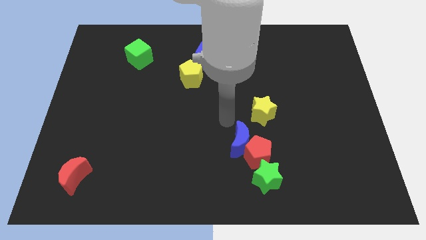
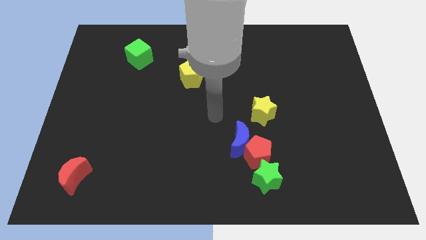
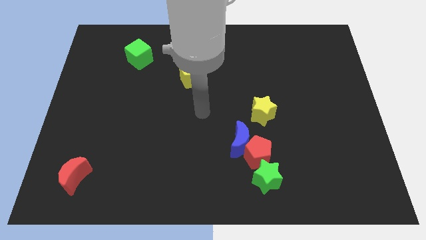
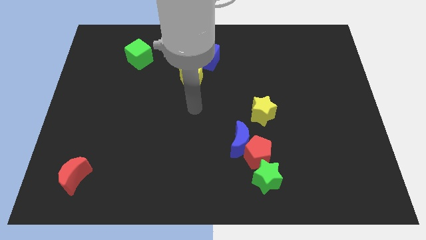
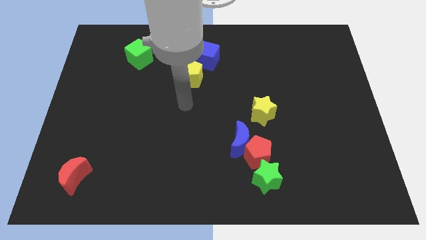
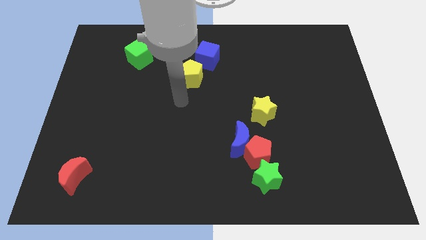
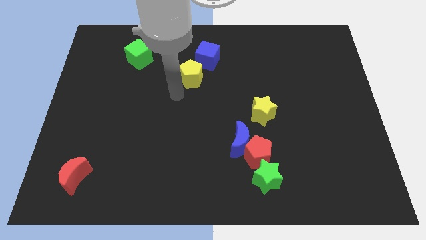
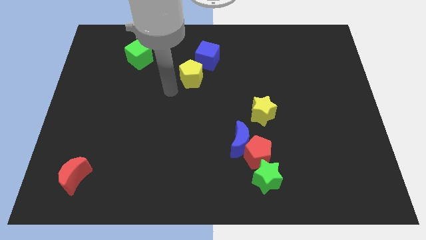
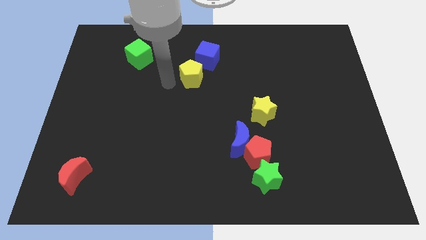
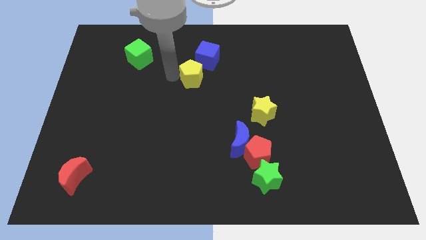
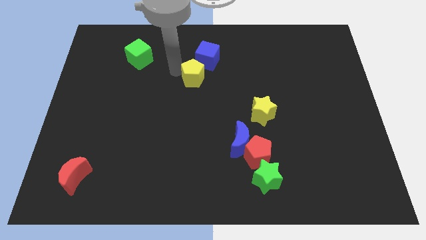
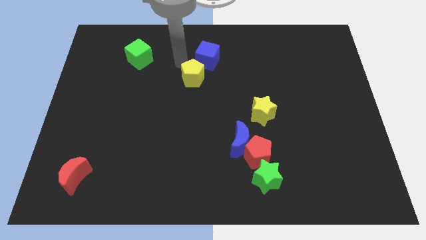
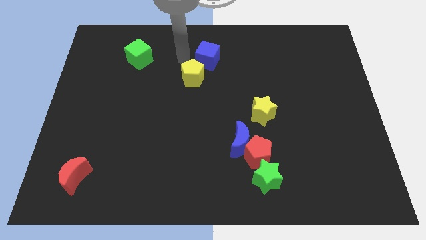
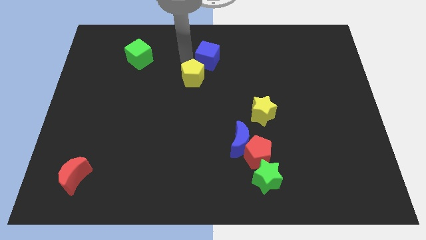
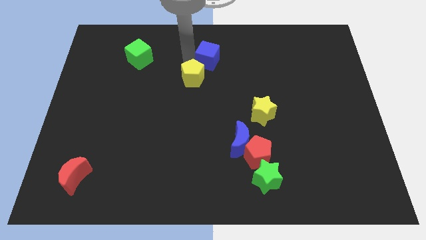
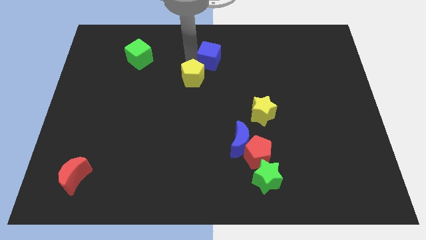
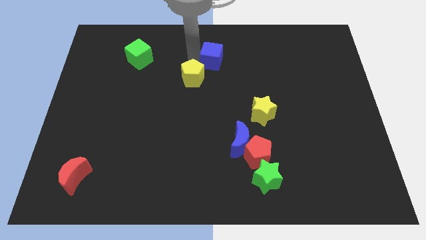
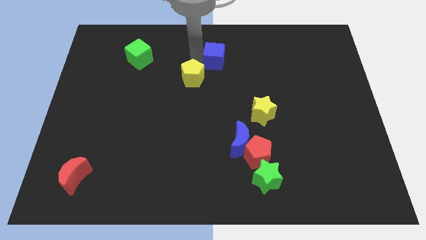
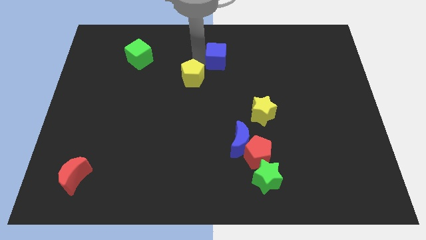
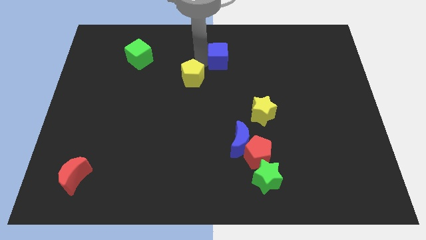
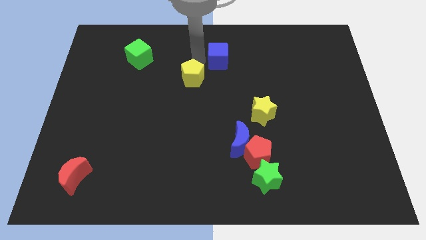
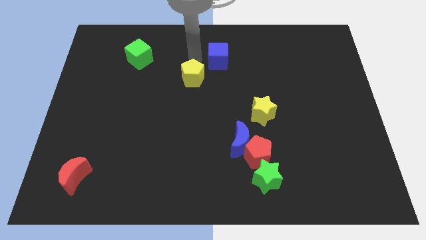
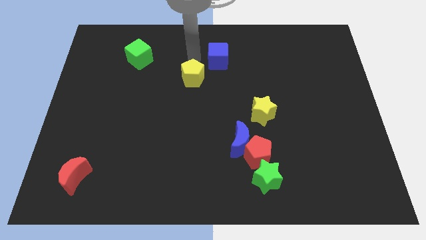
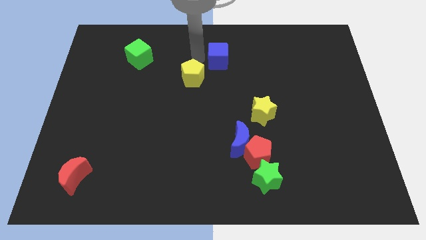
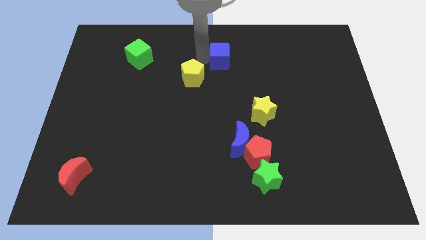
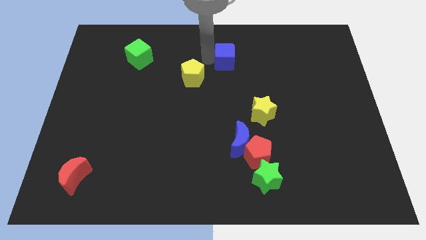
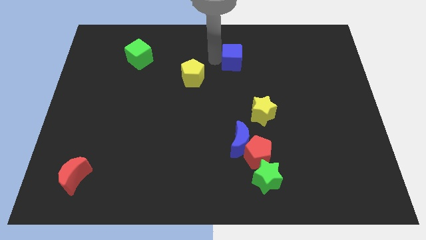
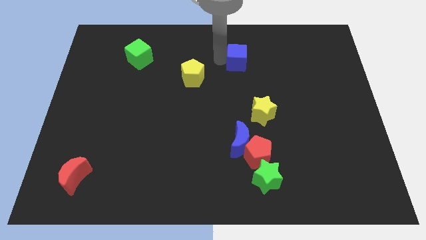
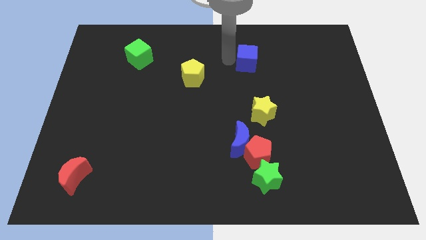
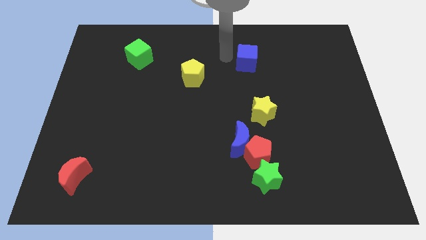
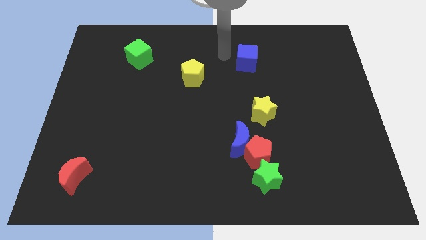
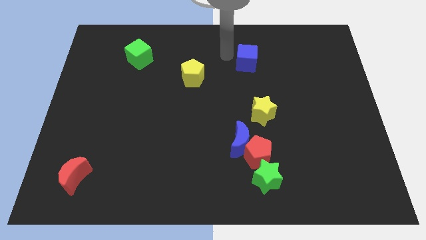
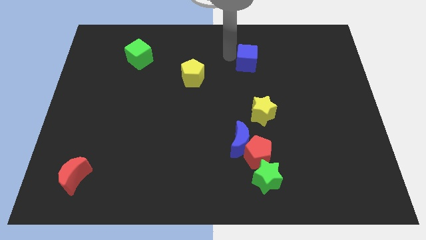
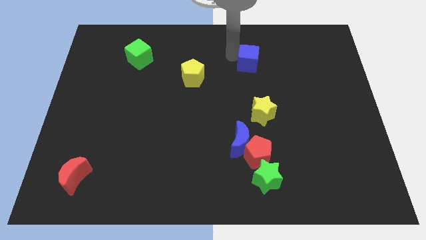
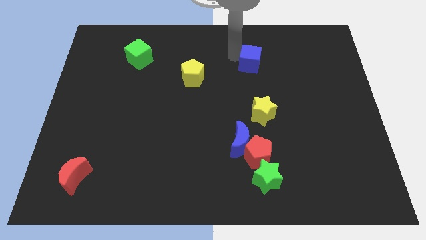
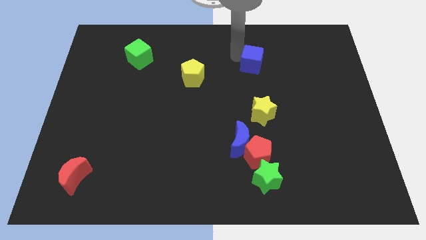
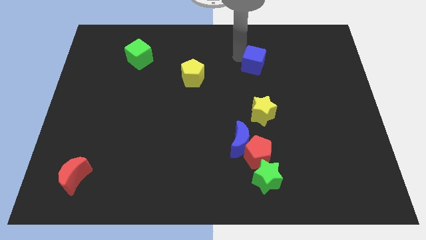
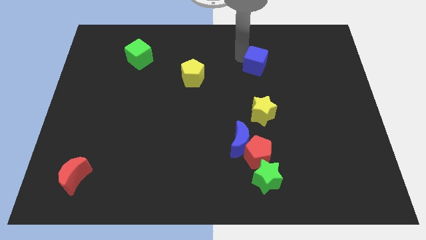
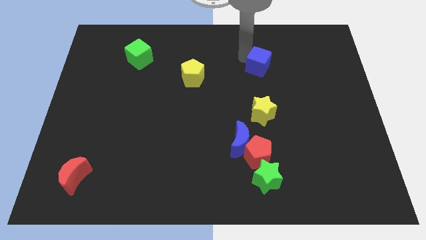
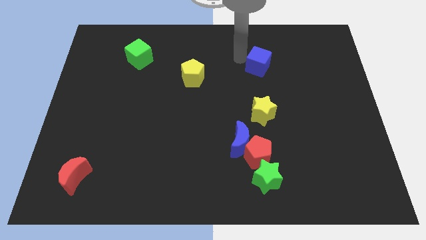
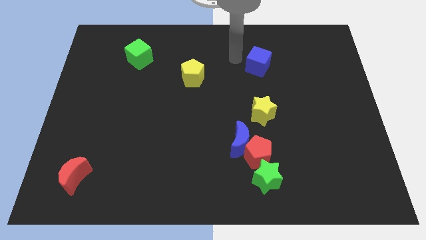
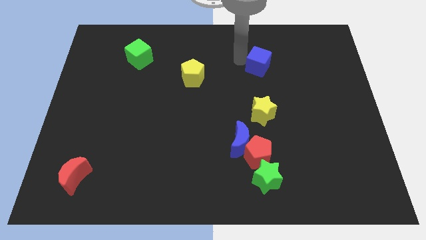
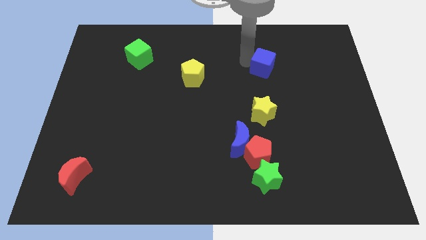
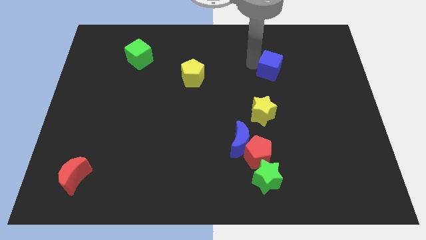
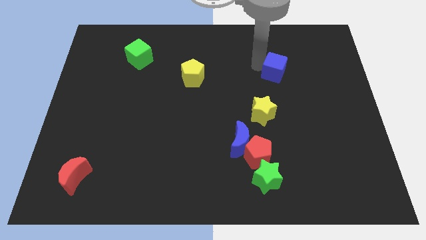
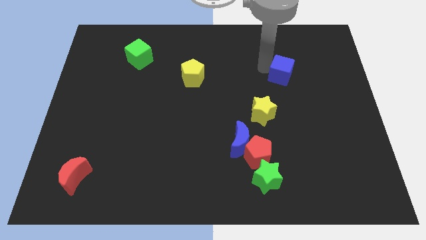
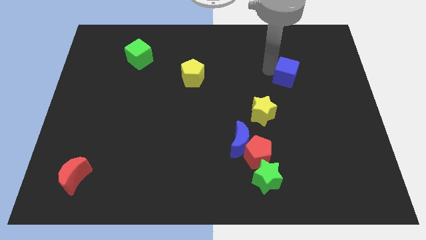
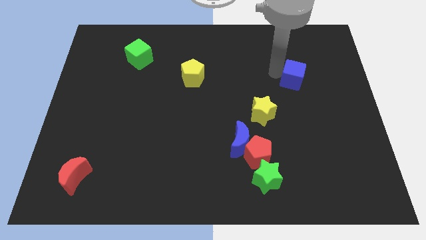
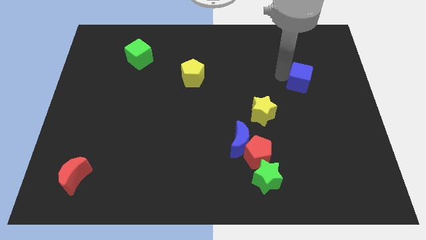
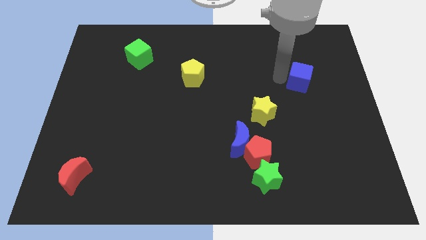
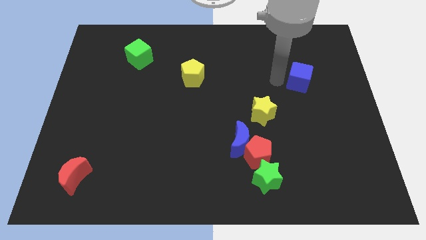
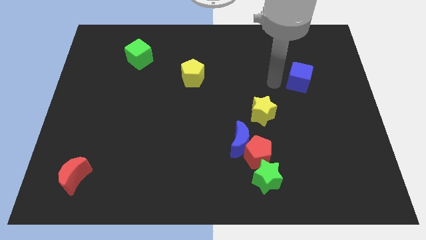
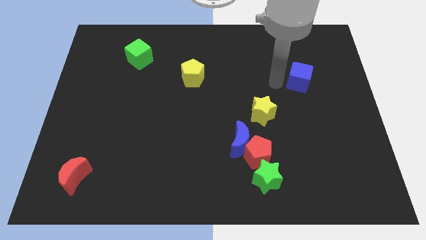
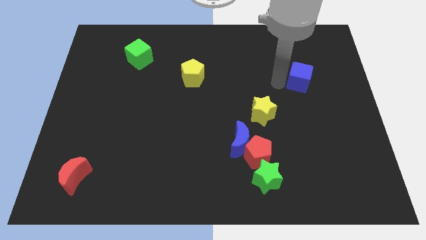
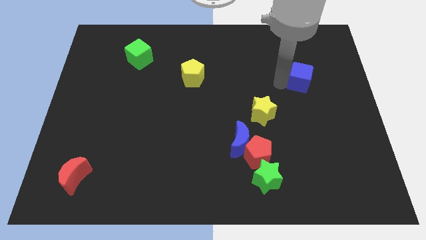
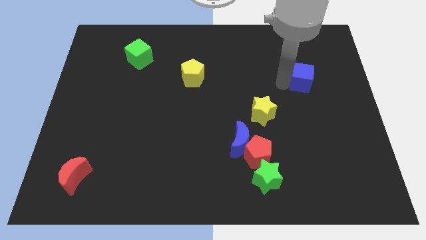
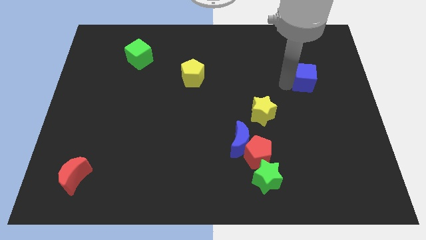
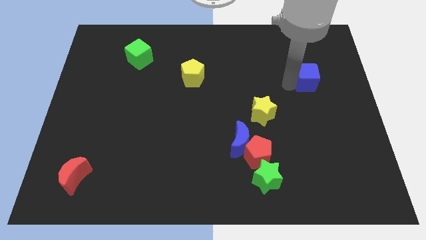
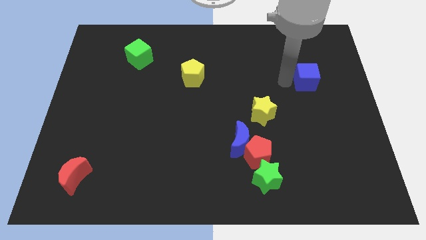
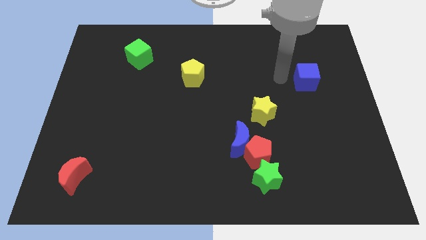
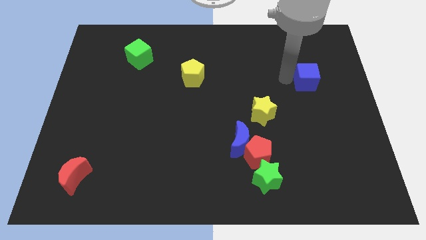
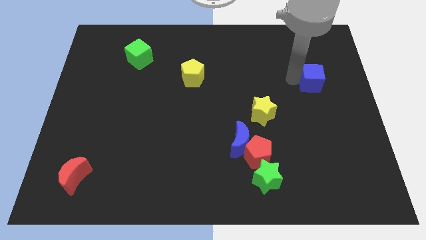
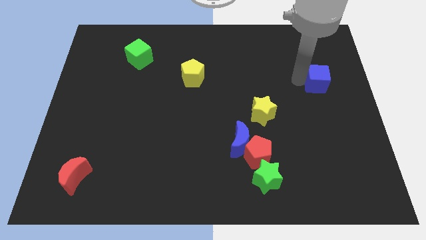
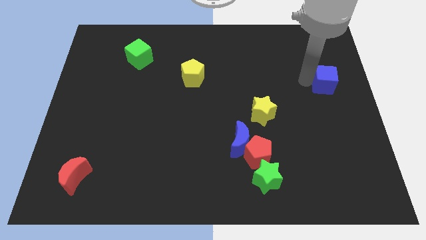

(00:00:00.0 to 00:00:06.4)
slide the blue cube to the right side of the board

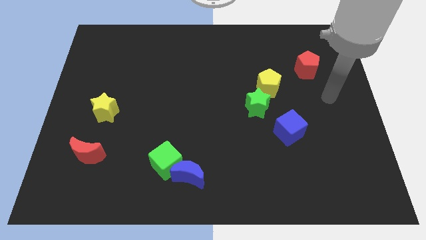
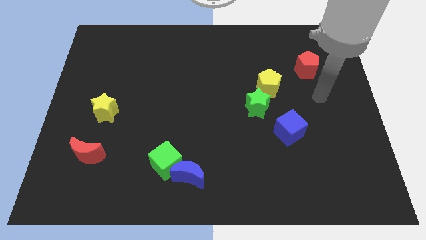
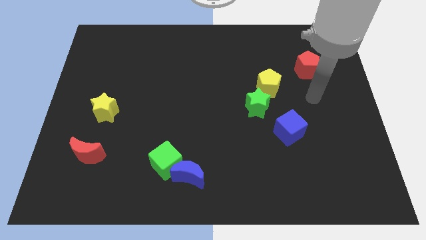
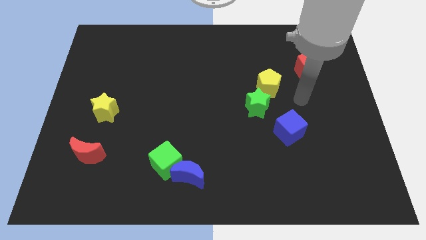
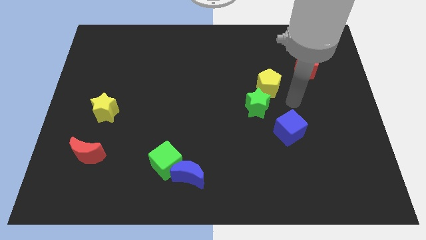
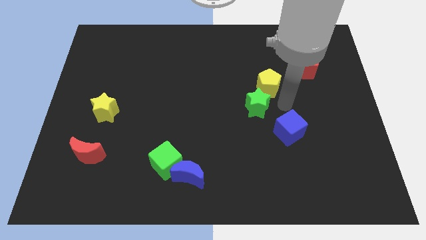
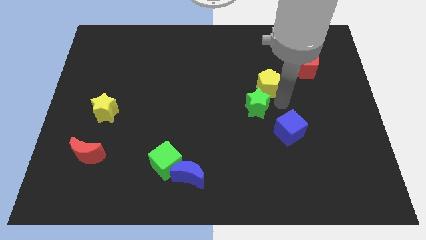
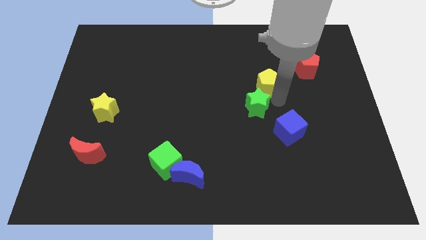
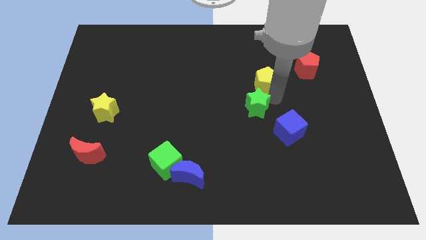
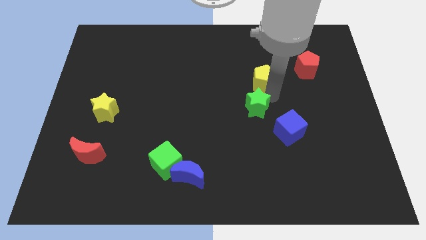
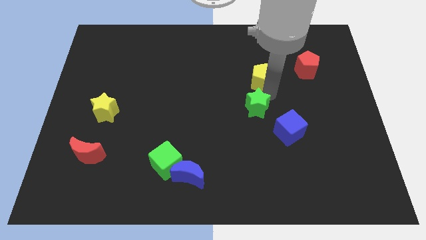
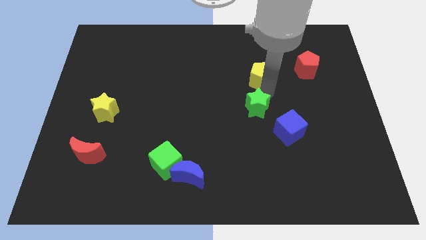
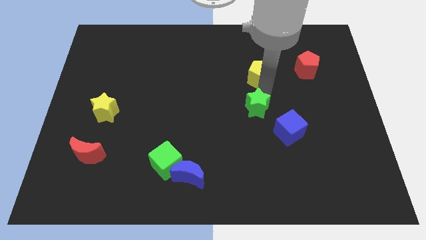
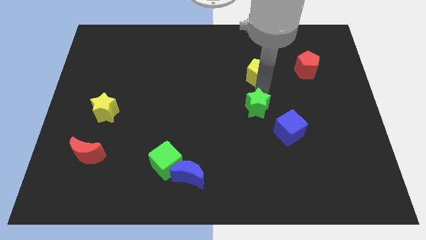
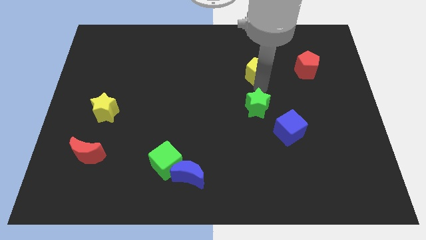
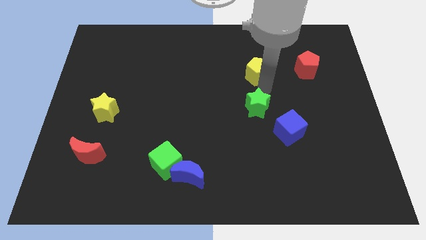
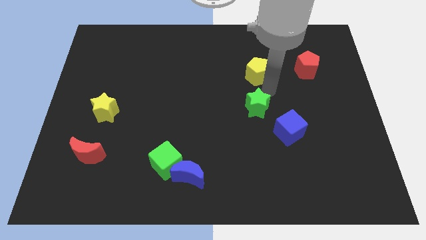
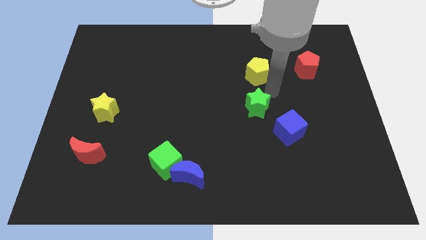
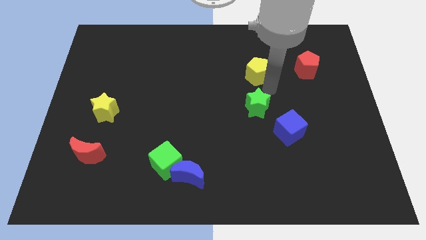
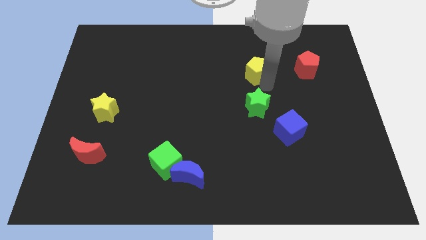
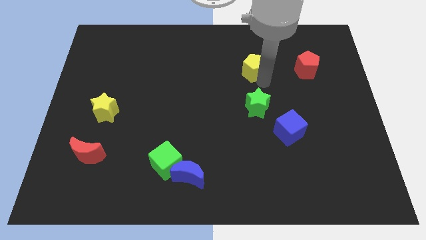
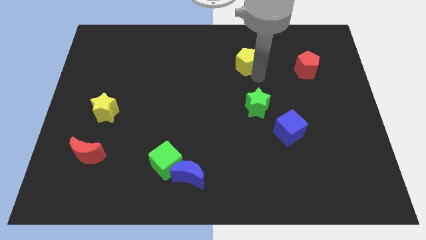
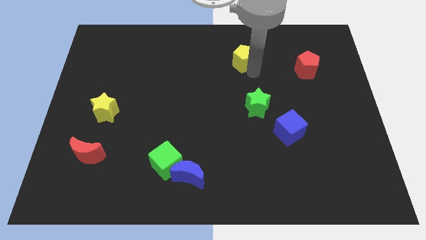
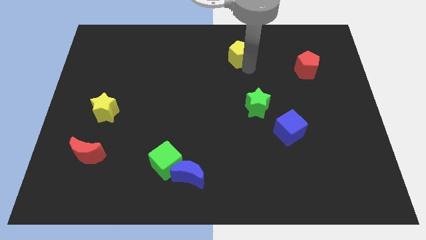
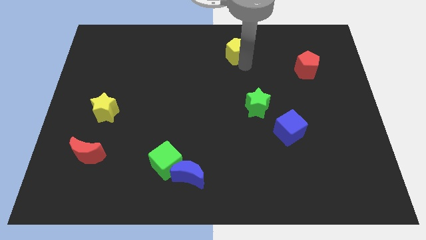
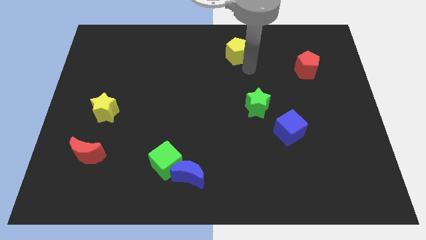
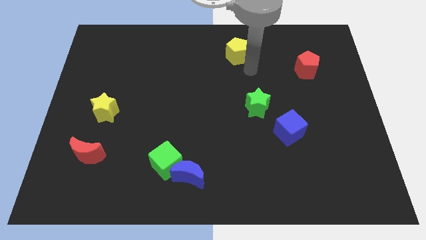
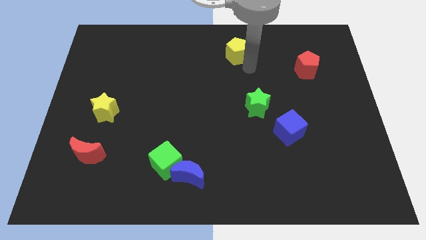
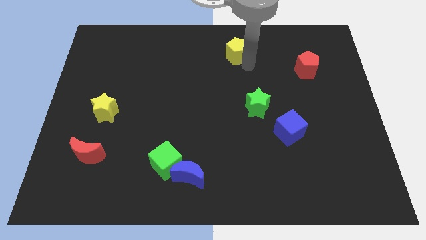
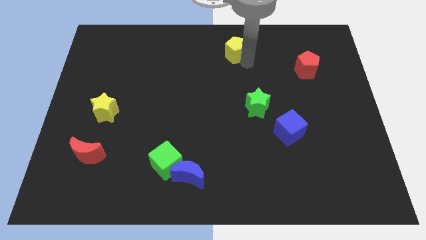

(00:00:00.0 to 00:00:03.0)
put the yellow pentagon to the top
